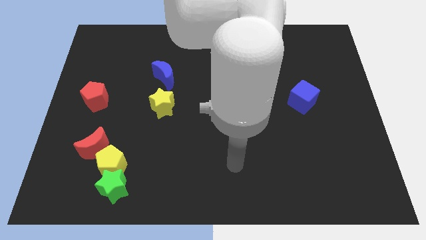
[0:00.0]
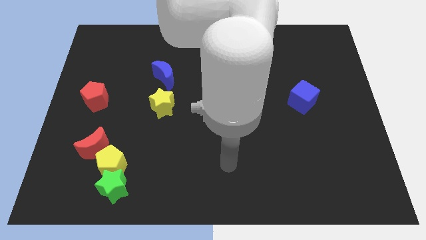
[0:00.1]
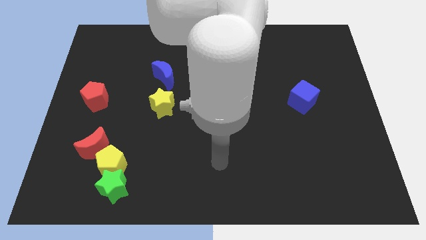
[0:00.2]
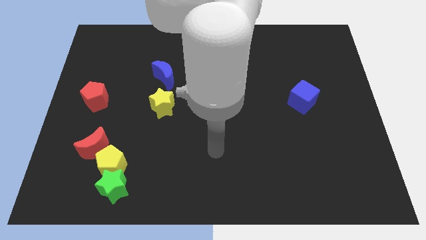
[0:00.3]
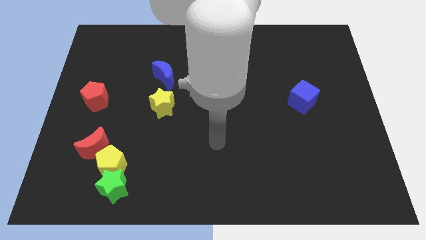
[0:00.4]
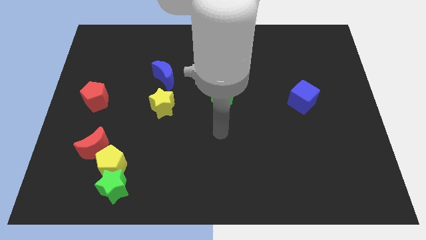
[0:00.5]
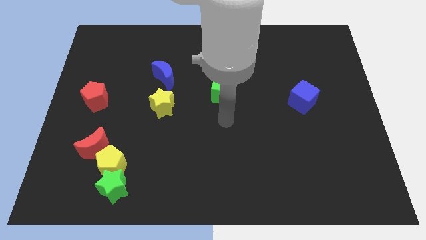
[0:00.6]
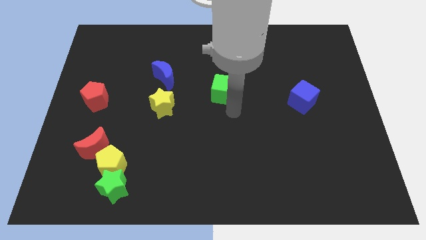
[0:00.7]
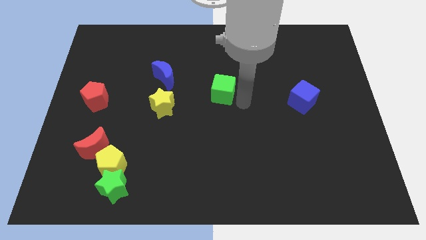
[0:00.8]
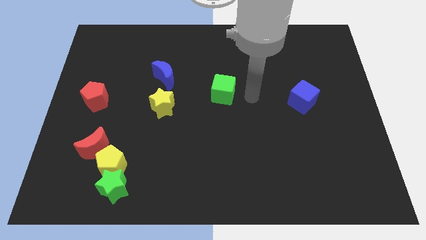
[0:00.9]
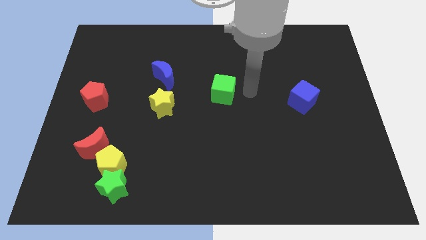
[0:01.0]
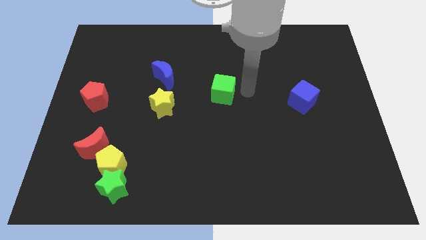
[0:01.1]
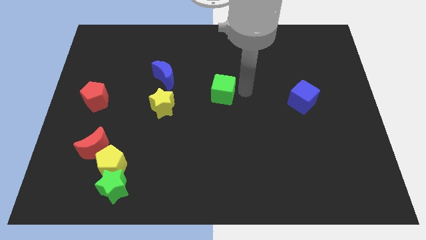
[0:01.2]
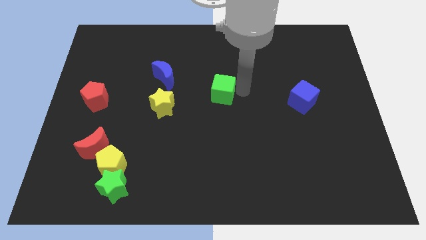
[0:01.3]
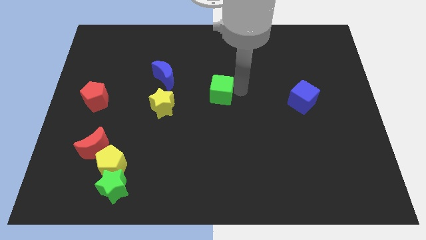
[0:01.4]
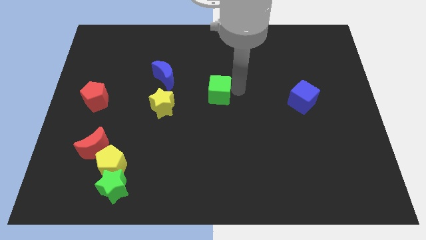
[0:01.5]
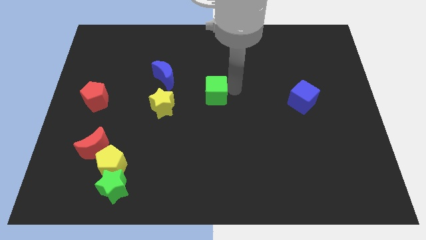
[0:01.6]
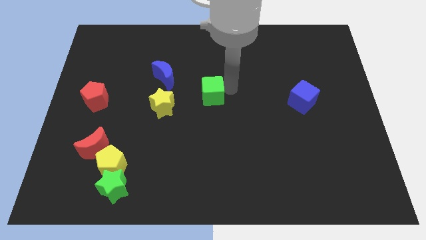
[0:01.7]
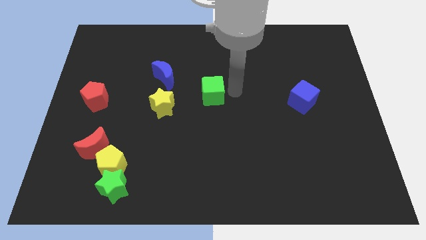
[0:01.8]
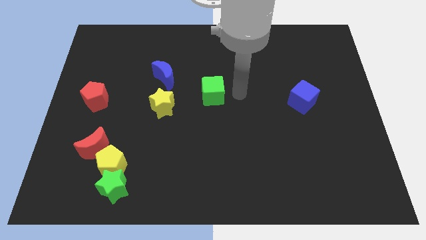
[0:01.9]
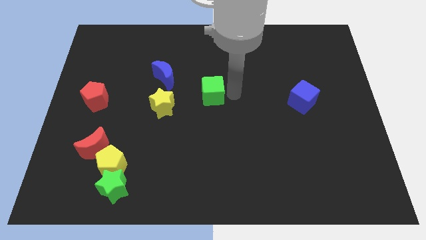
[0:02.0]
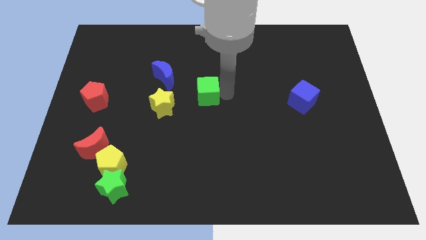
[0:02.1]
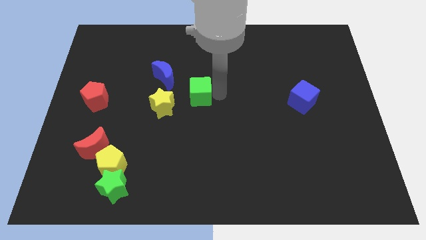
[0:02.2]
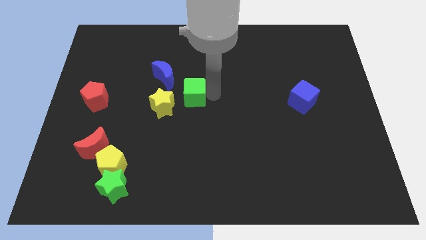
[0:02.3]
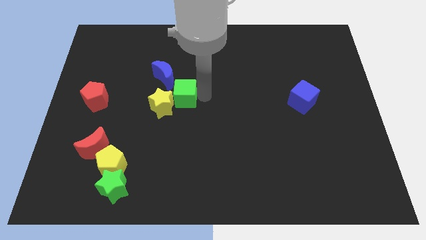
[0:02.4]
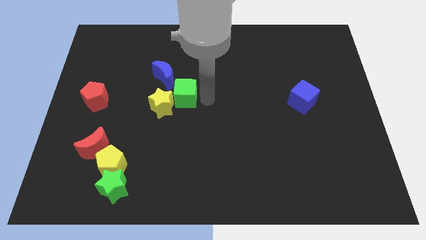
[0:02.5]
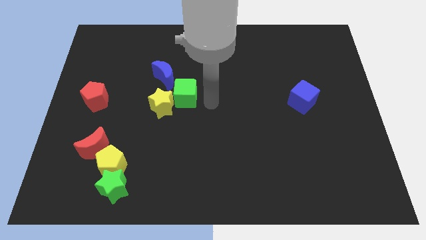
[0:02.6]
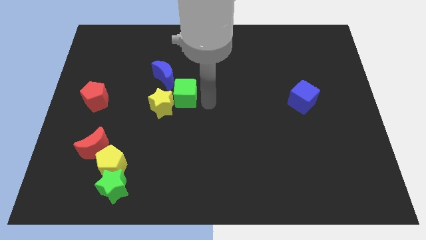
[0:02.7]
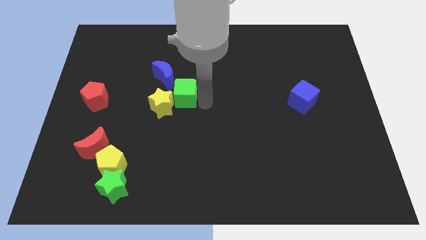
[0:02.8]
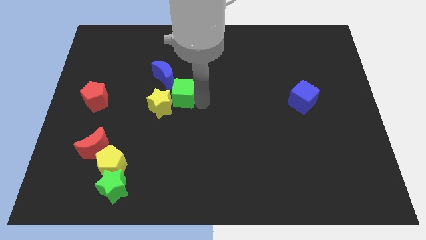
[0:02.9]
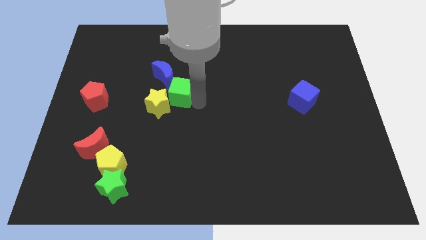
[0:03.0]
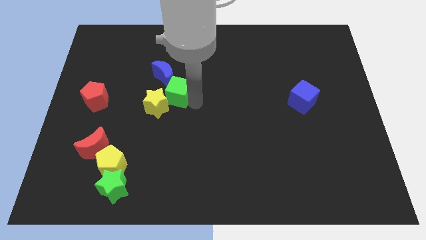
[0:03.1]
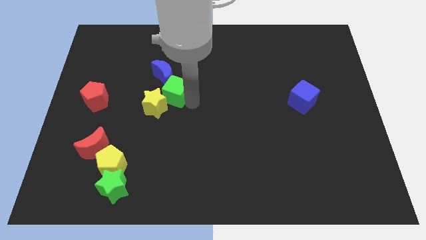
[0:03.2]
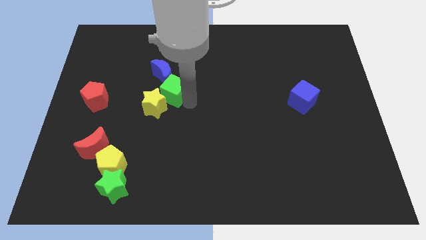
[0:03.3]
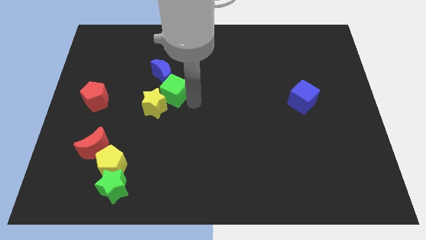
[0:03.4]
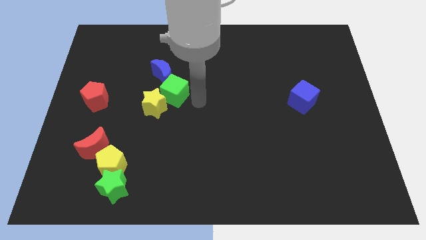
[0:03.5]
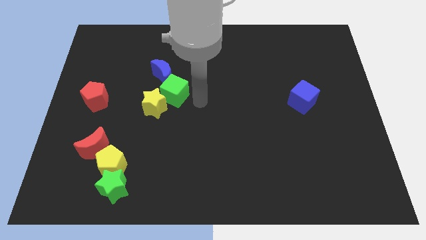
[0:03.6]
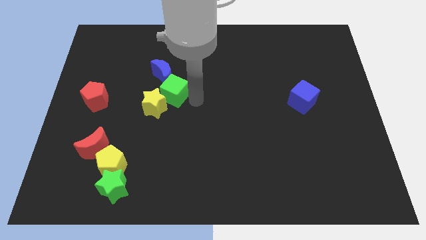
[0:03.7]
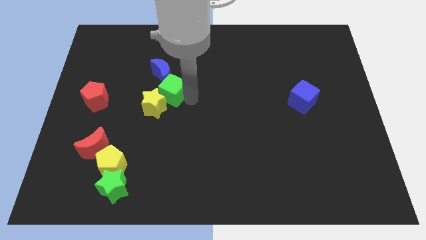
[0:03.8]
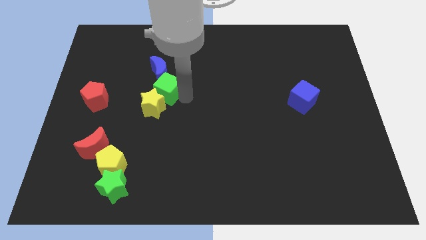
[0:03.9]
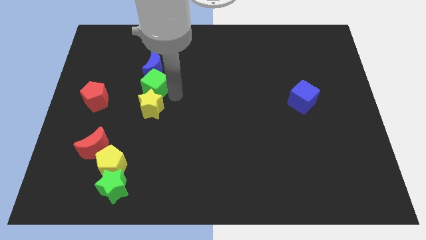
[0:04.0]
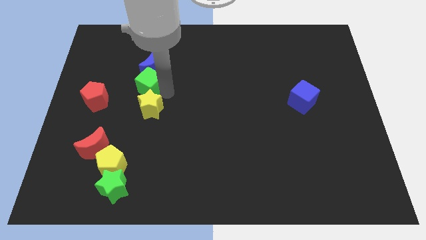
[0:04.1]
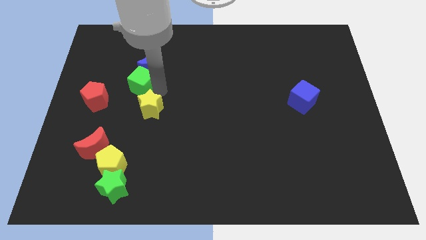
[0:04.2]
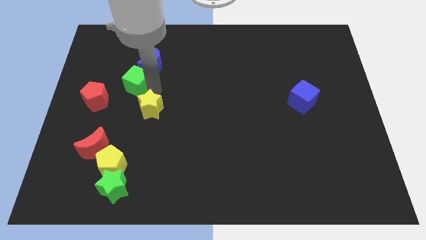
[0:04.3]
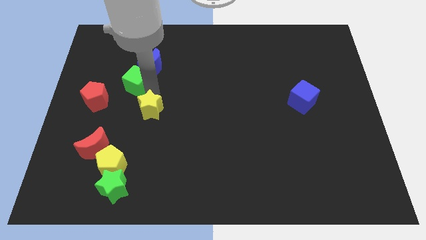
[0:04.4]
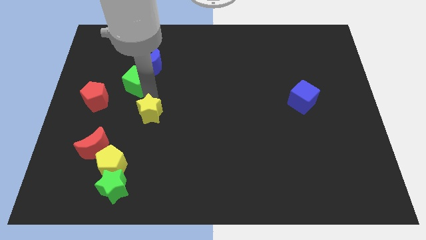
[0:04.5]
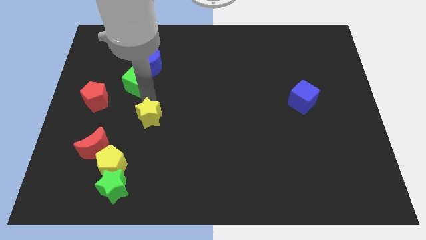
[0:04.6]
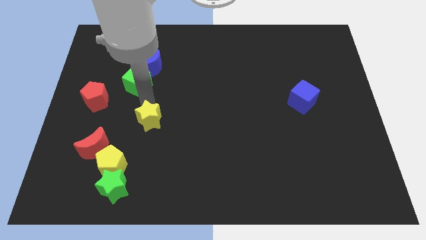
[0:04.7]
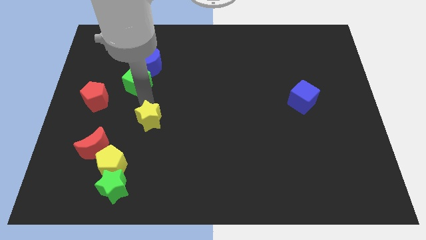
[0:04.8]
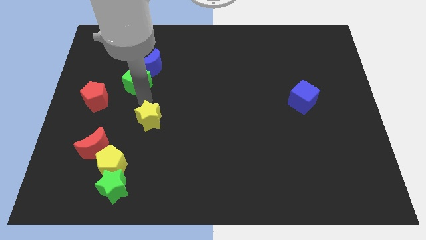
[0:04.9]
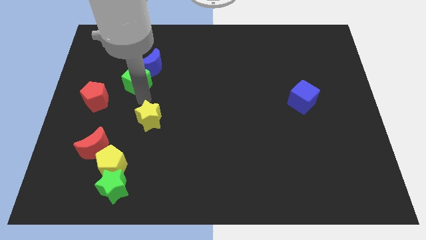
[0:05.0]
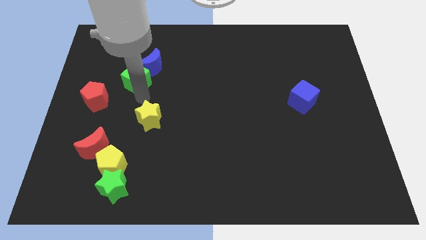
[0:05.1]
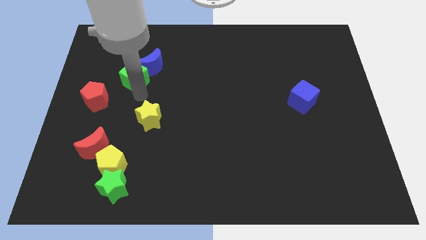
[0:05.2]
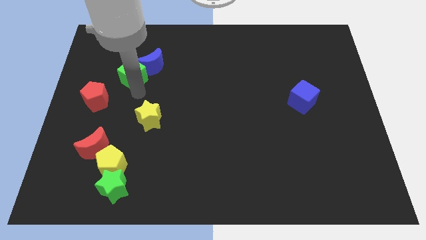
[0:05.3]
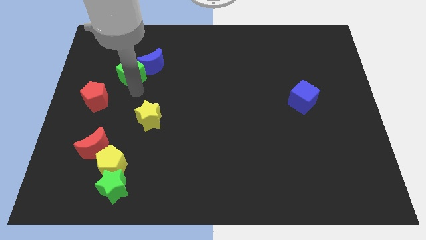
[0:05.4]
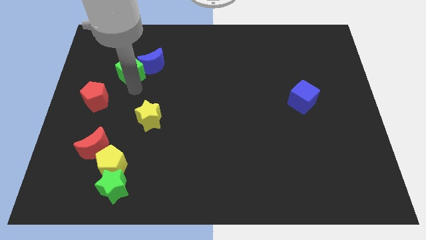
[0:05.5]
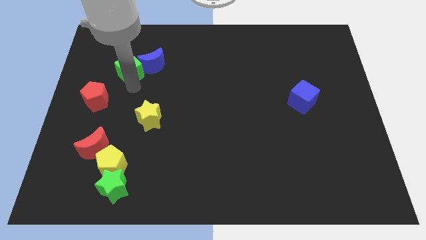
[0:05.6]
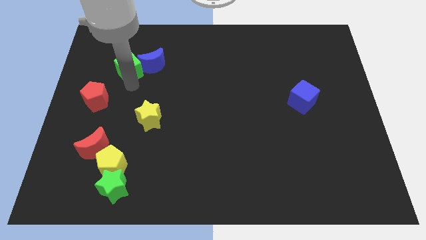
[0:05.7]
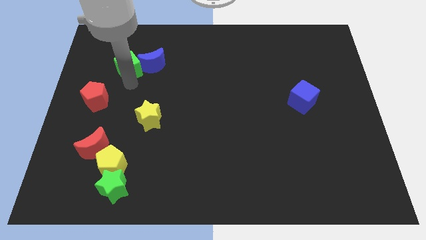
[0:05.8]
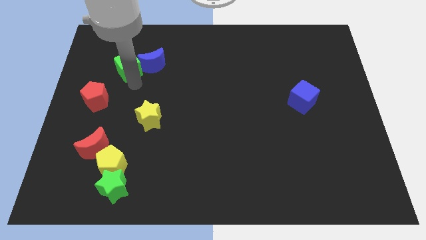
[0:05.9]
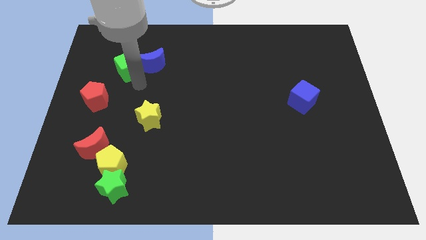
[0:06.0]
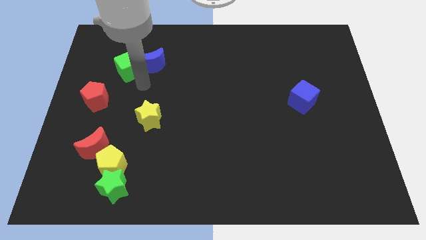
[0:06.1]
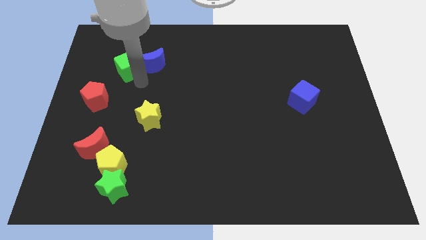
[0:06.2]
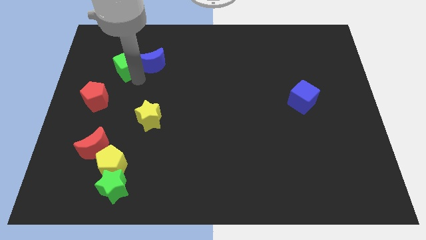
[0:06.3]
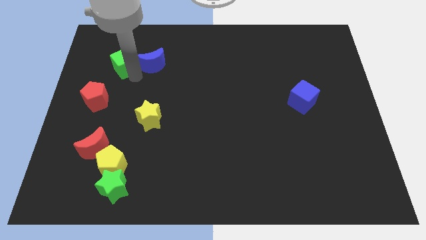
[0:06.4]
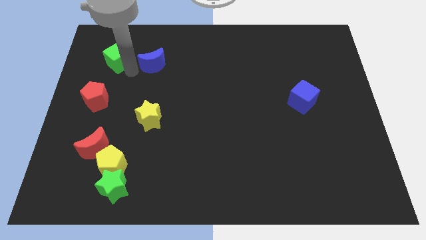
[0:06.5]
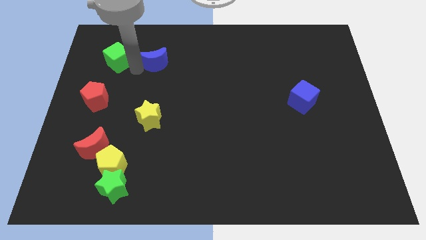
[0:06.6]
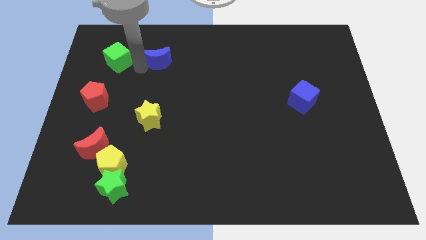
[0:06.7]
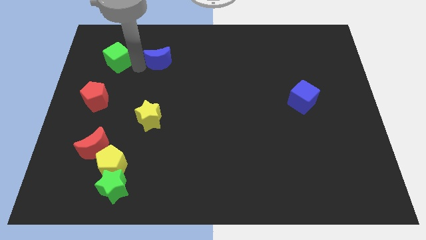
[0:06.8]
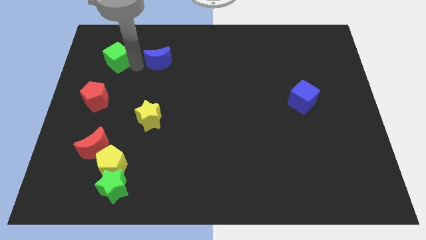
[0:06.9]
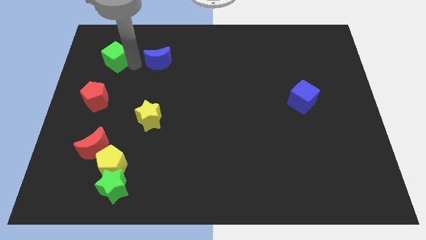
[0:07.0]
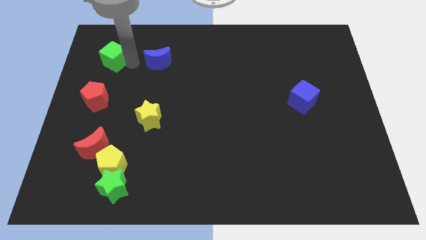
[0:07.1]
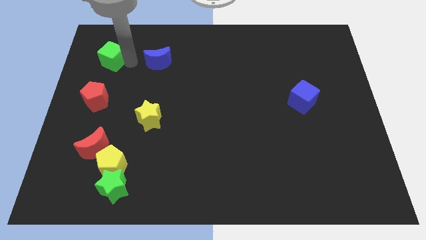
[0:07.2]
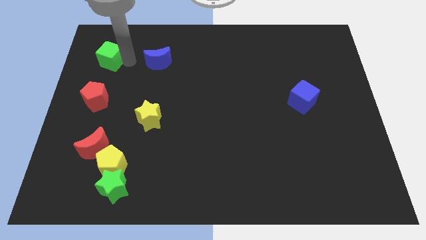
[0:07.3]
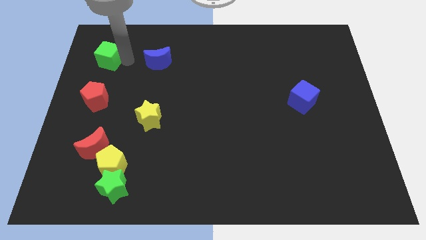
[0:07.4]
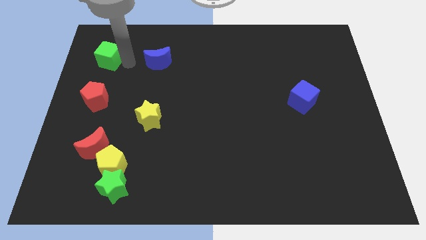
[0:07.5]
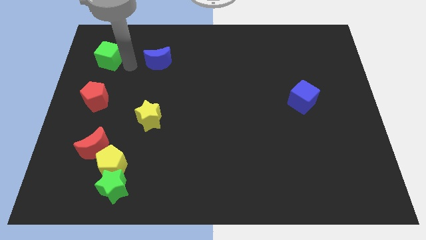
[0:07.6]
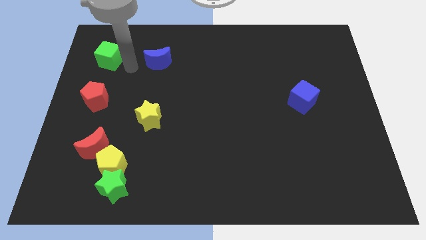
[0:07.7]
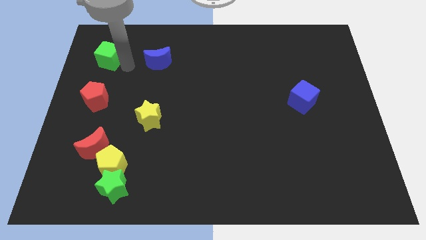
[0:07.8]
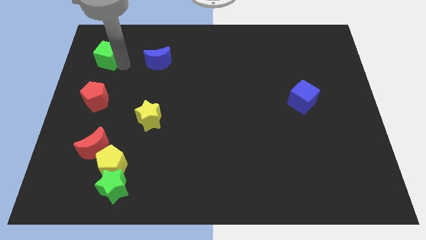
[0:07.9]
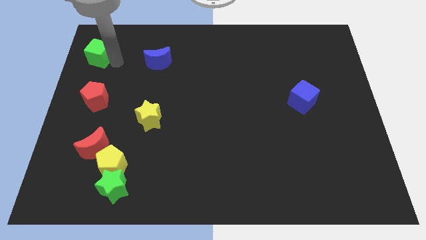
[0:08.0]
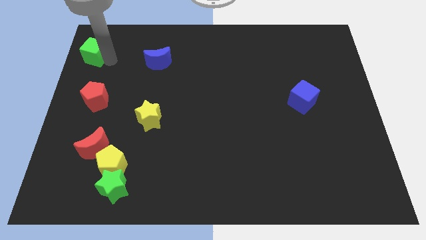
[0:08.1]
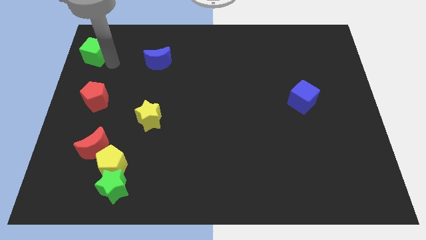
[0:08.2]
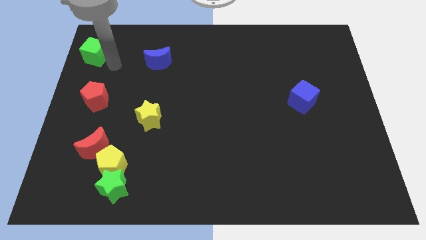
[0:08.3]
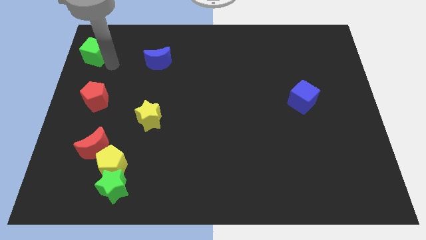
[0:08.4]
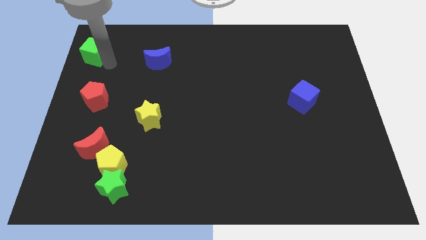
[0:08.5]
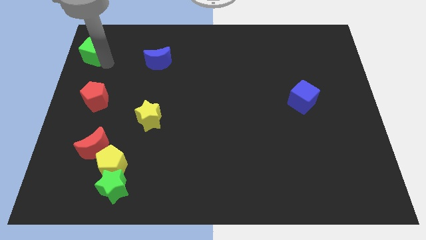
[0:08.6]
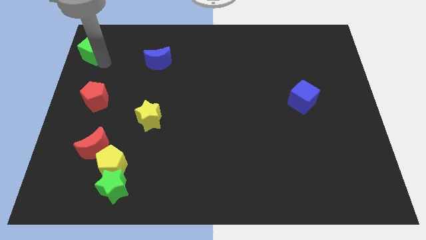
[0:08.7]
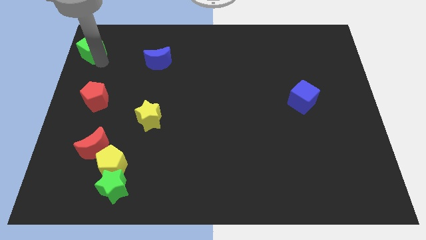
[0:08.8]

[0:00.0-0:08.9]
slide the green cube to the top left of the board
